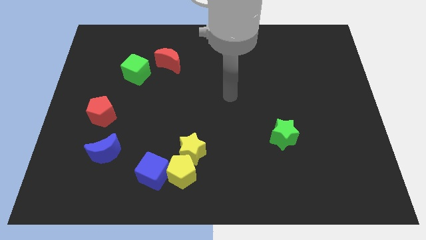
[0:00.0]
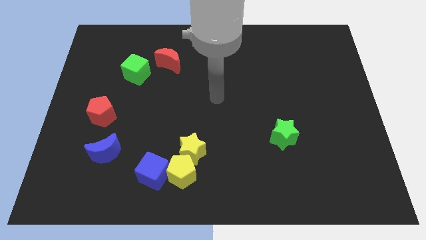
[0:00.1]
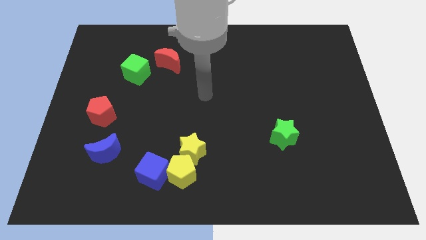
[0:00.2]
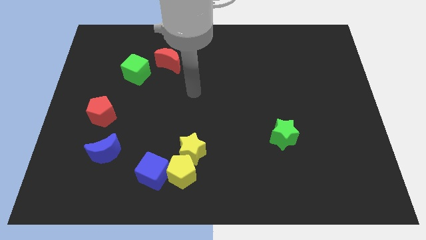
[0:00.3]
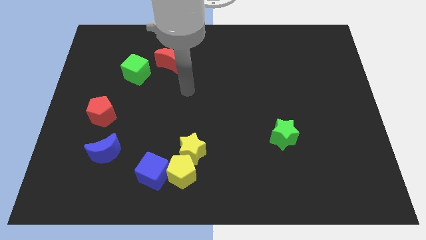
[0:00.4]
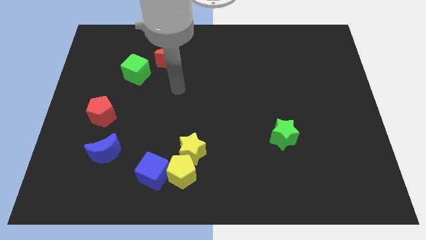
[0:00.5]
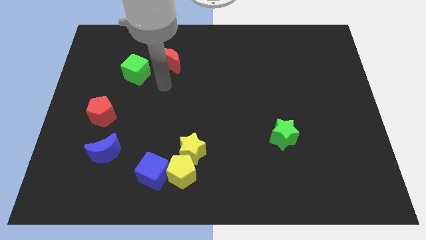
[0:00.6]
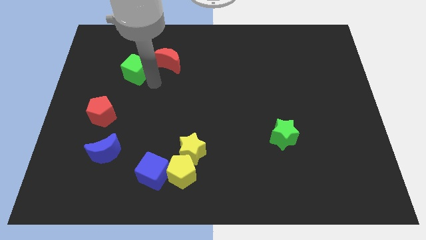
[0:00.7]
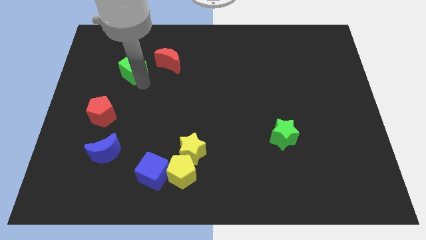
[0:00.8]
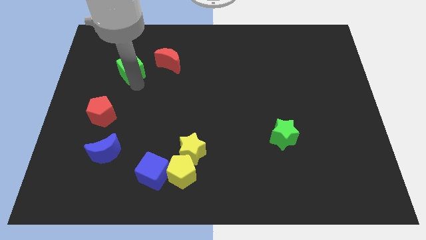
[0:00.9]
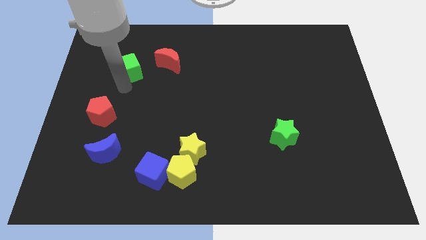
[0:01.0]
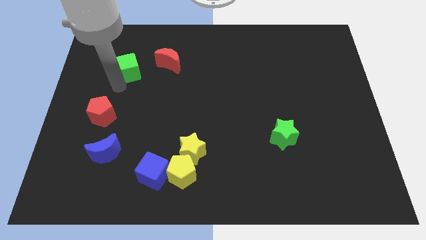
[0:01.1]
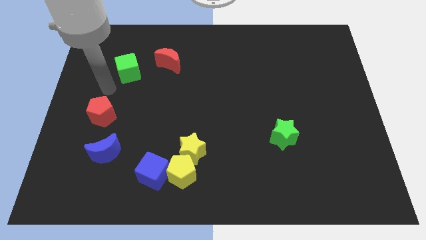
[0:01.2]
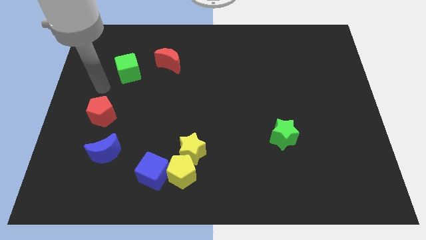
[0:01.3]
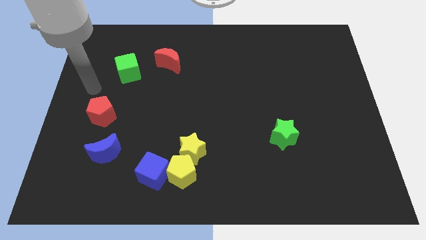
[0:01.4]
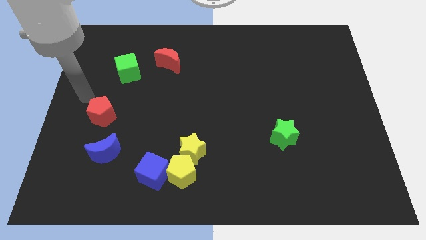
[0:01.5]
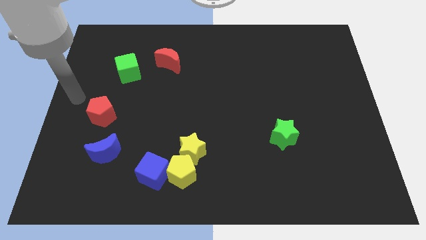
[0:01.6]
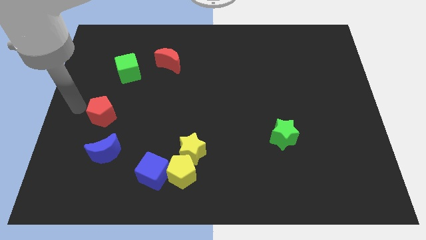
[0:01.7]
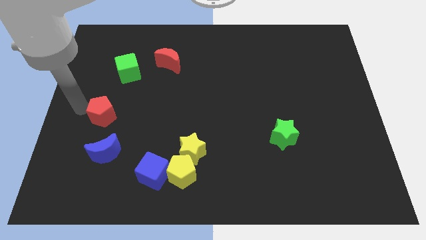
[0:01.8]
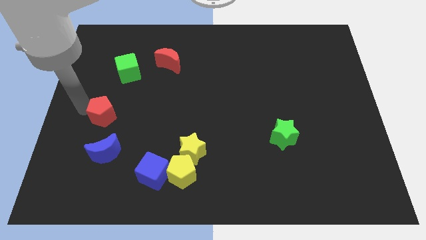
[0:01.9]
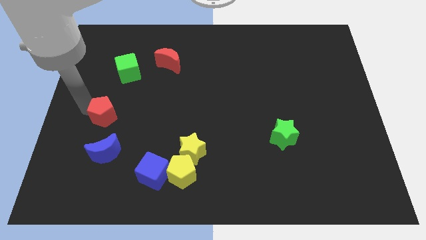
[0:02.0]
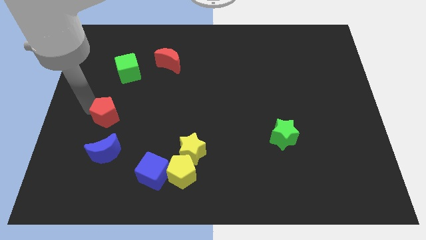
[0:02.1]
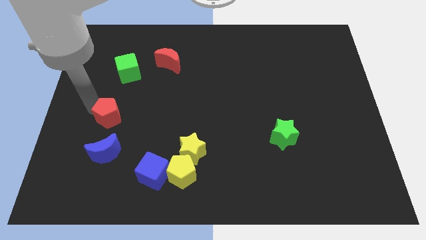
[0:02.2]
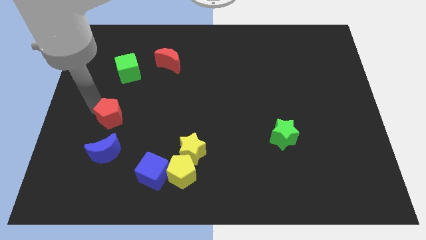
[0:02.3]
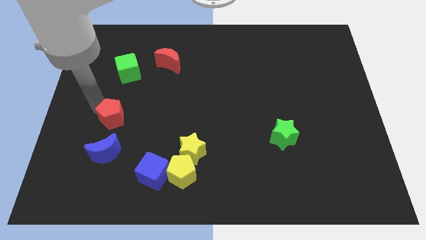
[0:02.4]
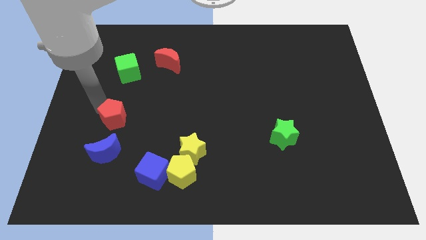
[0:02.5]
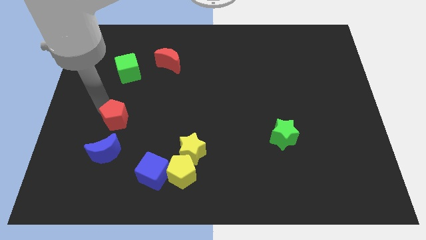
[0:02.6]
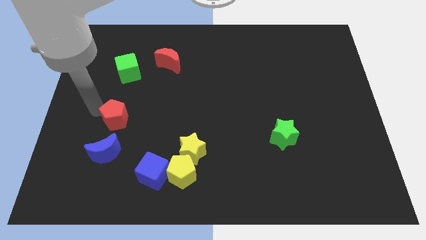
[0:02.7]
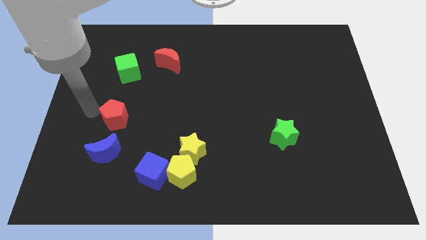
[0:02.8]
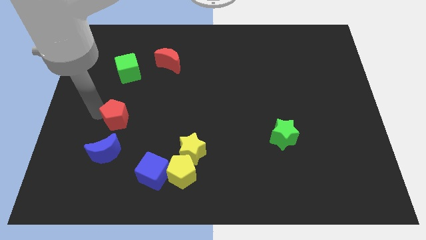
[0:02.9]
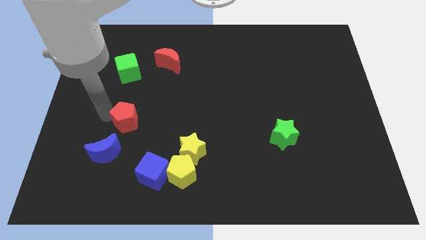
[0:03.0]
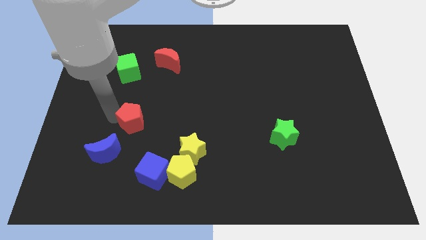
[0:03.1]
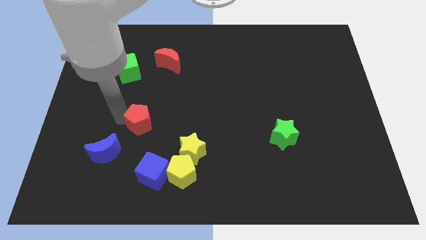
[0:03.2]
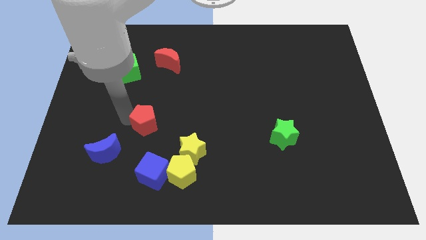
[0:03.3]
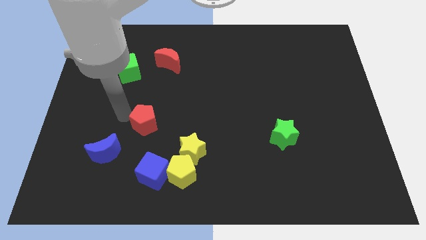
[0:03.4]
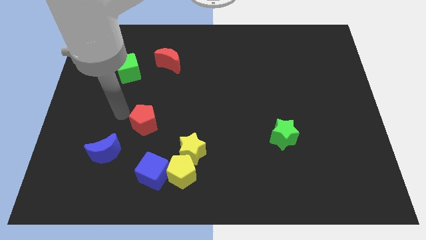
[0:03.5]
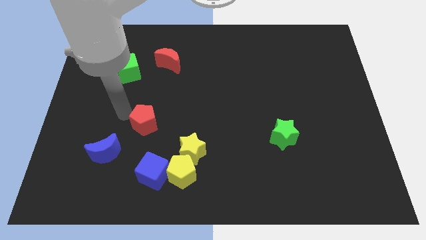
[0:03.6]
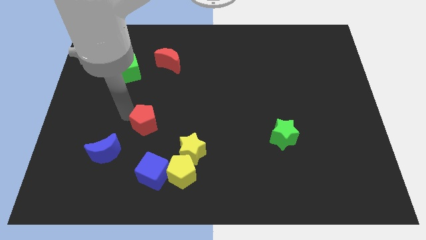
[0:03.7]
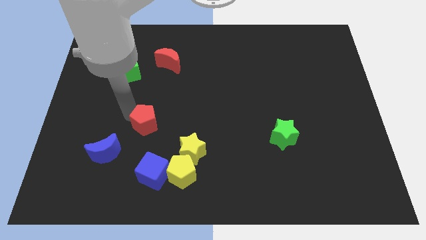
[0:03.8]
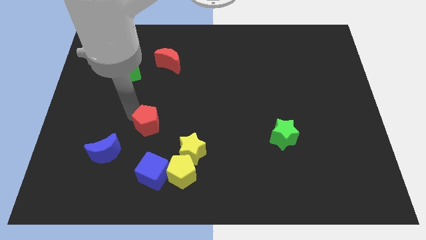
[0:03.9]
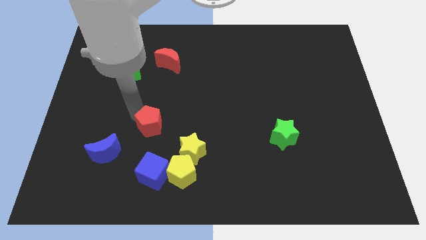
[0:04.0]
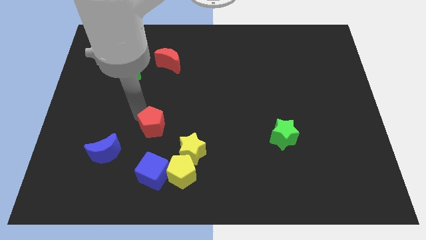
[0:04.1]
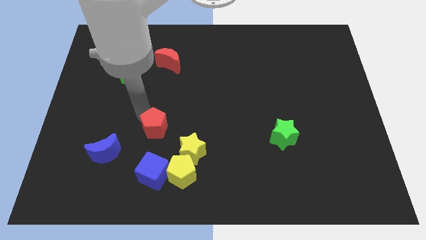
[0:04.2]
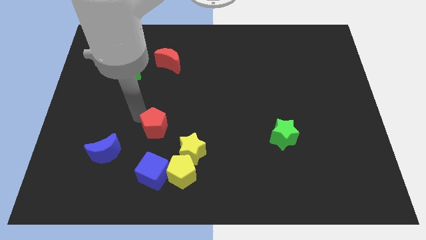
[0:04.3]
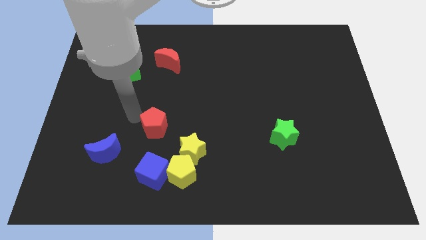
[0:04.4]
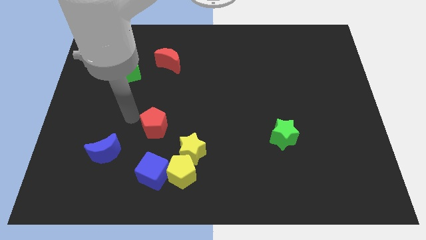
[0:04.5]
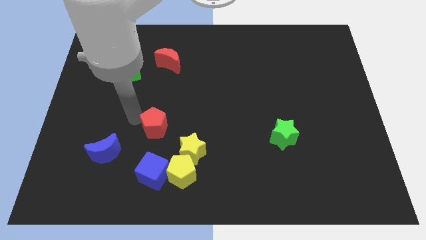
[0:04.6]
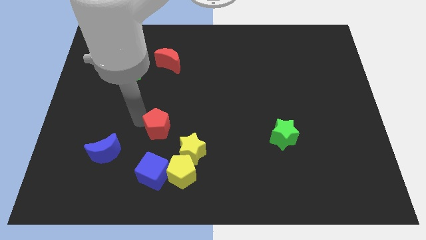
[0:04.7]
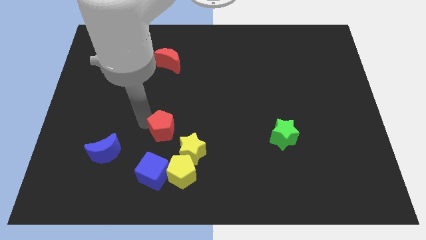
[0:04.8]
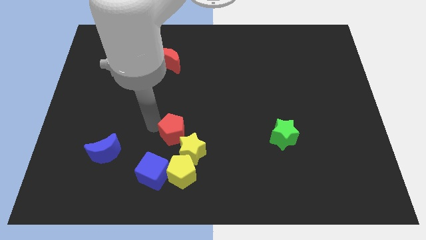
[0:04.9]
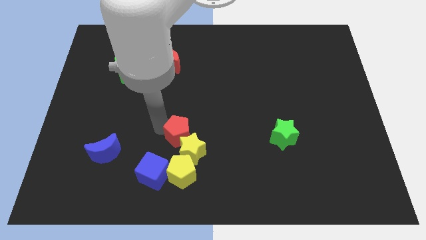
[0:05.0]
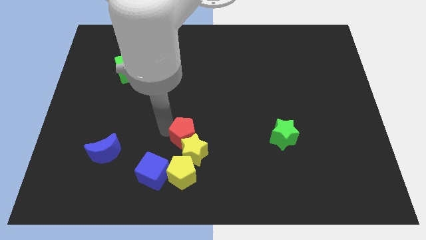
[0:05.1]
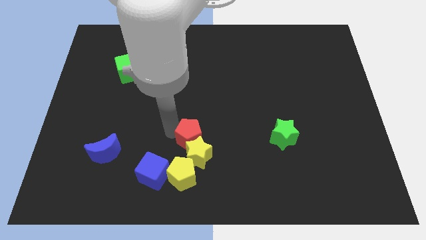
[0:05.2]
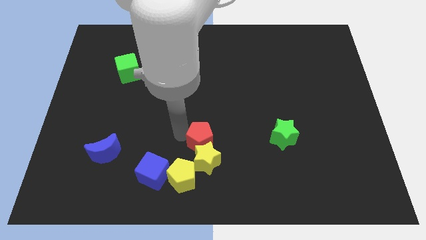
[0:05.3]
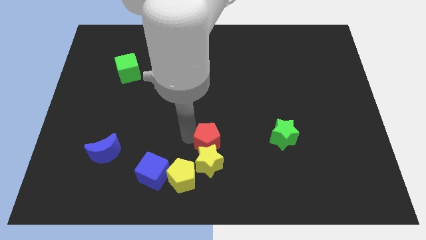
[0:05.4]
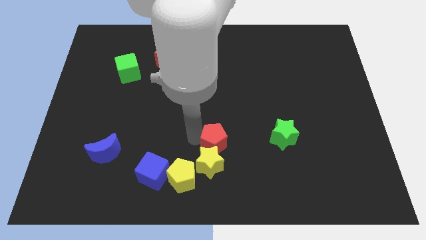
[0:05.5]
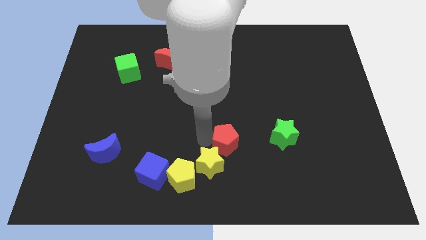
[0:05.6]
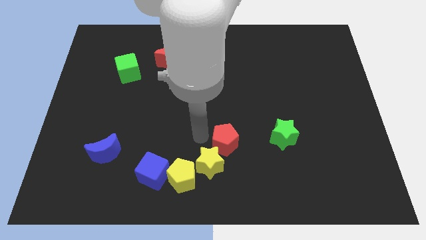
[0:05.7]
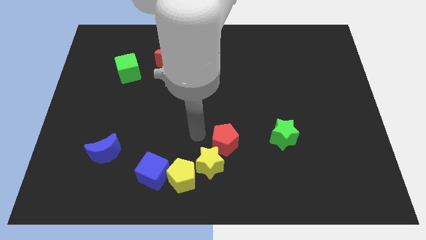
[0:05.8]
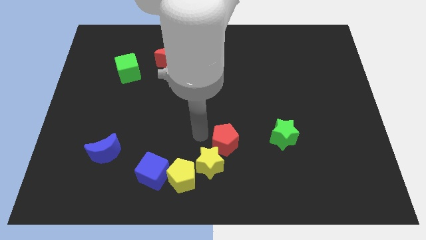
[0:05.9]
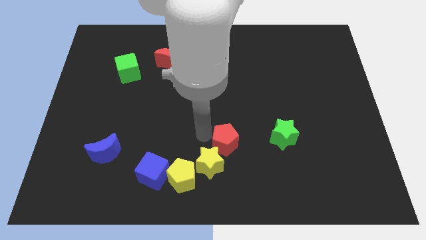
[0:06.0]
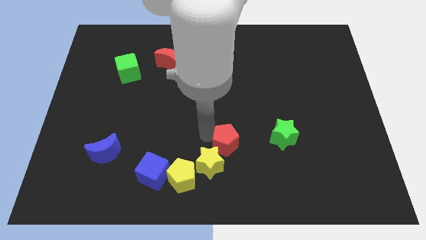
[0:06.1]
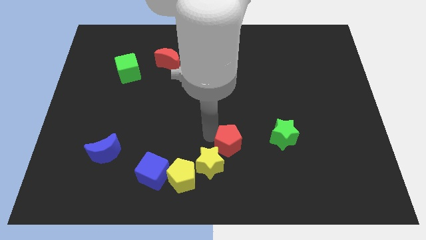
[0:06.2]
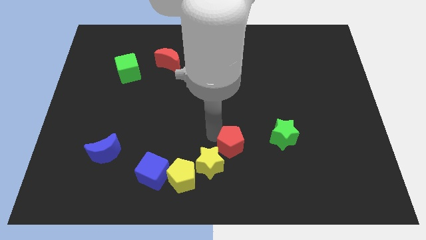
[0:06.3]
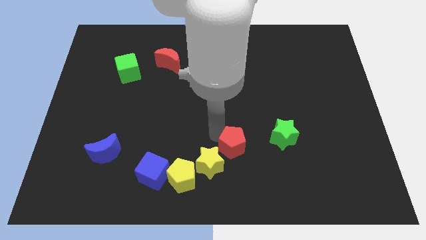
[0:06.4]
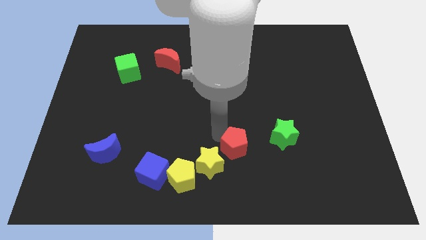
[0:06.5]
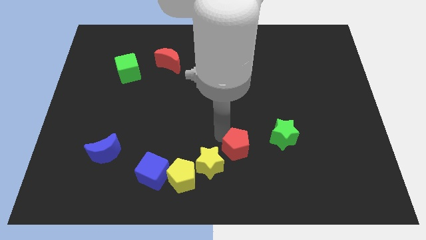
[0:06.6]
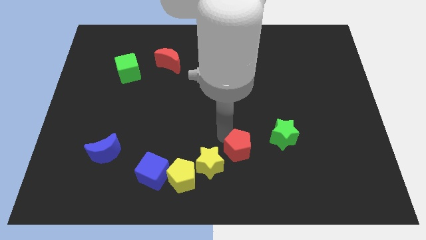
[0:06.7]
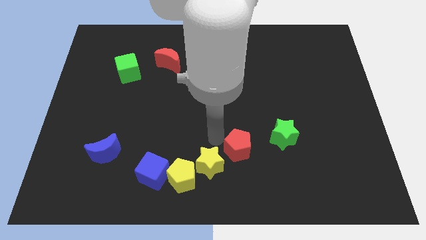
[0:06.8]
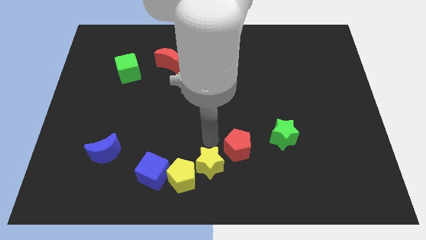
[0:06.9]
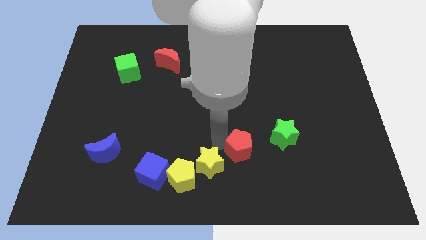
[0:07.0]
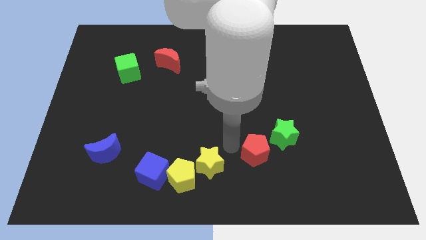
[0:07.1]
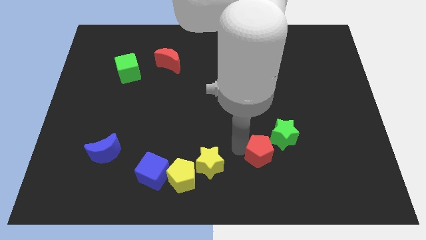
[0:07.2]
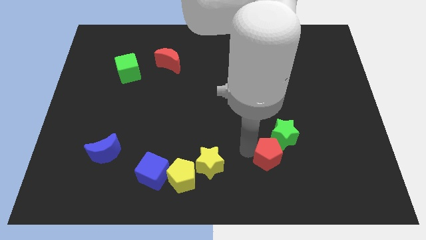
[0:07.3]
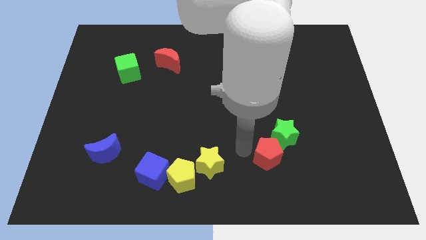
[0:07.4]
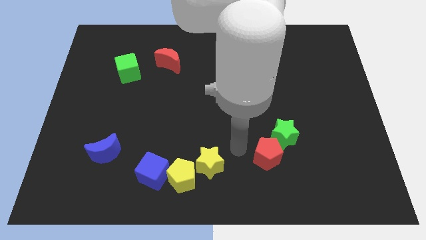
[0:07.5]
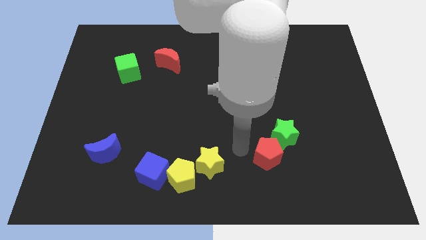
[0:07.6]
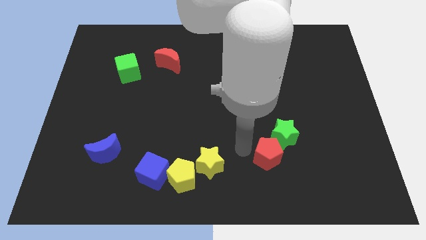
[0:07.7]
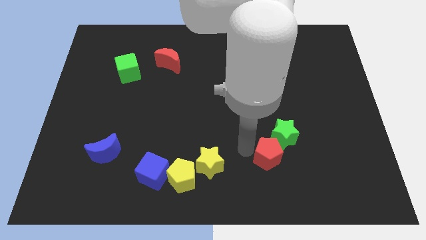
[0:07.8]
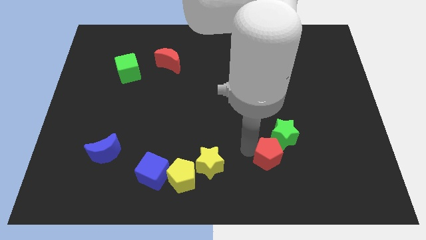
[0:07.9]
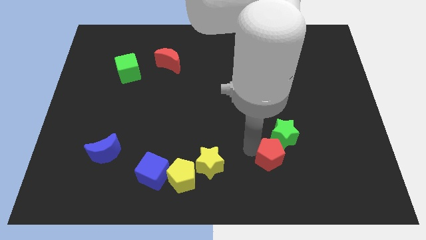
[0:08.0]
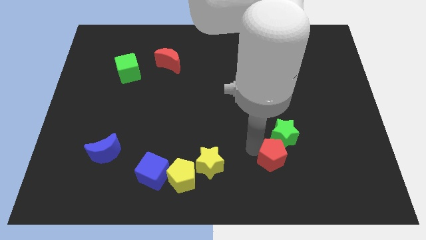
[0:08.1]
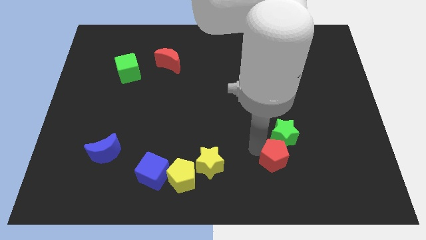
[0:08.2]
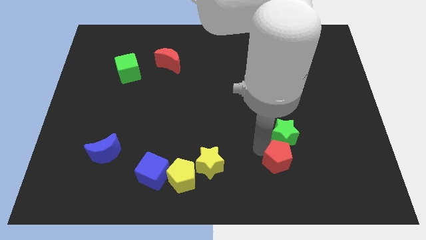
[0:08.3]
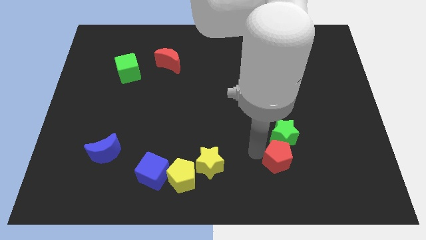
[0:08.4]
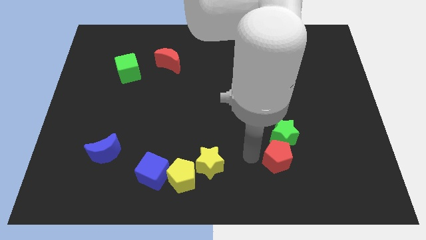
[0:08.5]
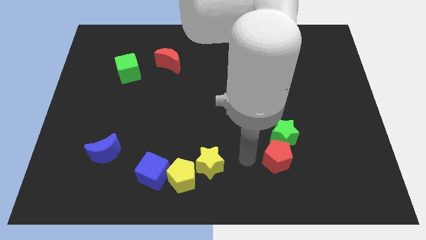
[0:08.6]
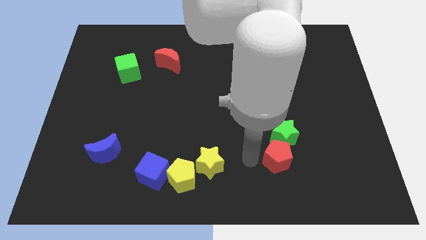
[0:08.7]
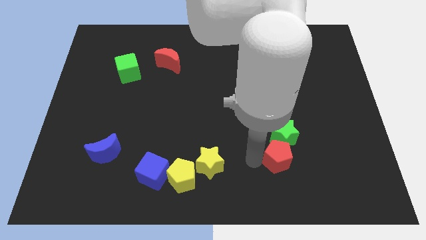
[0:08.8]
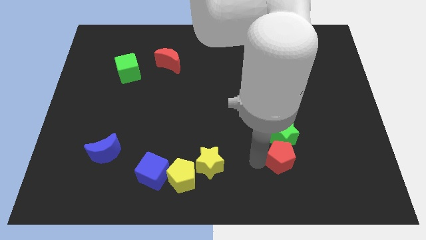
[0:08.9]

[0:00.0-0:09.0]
put the red pentagon to the bottom right side of the green star
